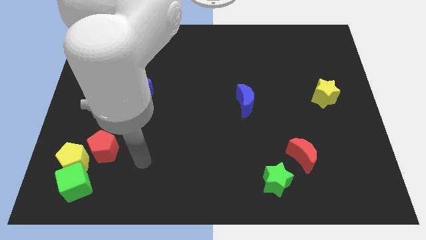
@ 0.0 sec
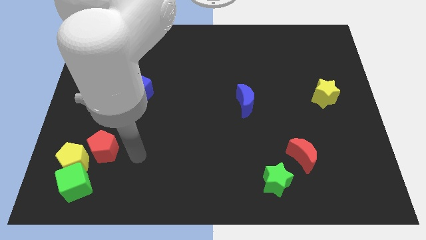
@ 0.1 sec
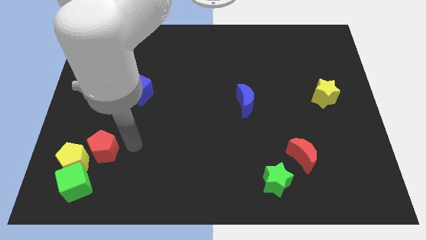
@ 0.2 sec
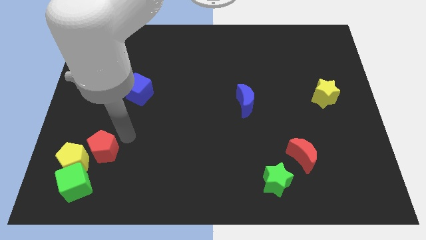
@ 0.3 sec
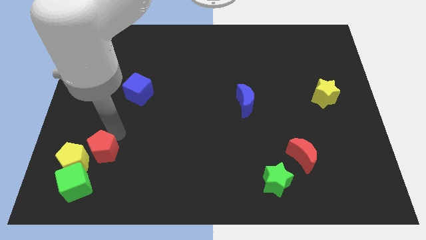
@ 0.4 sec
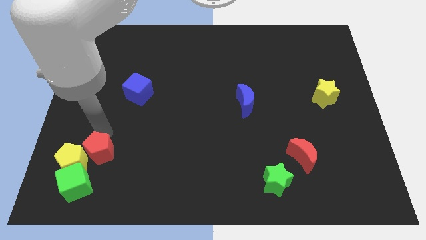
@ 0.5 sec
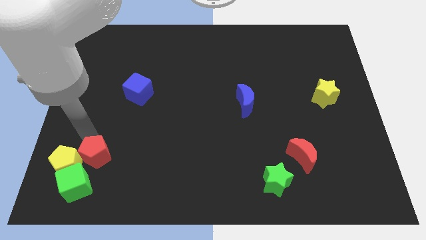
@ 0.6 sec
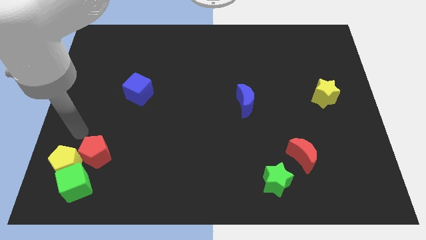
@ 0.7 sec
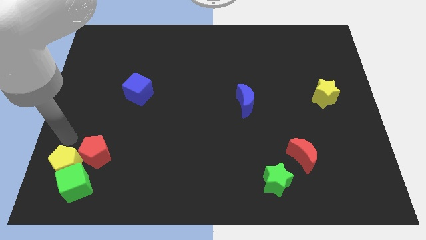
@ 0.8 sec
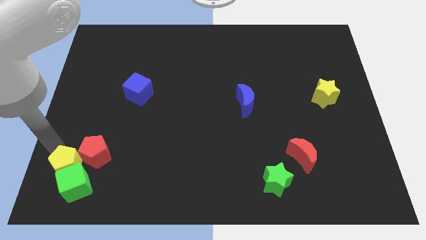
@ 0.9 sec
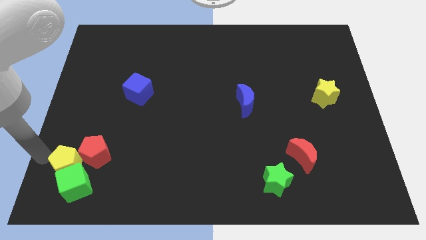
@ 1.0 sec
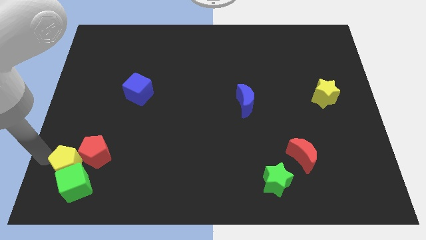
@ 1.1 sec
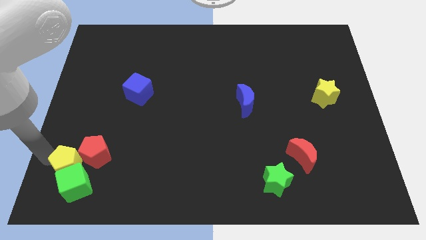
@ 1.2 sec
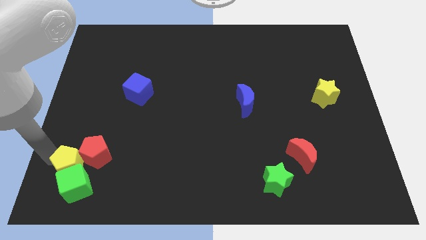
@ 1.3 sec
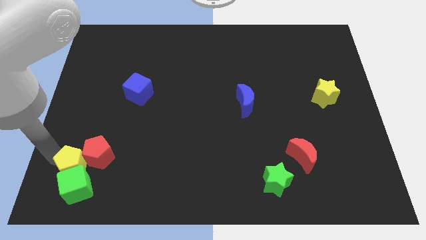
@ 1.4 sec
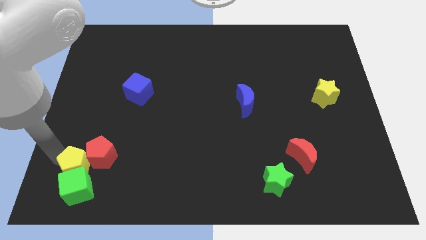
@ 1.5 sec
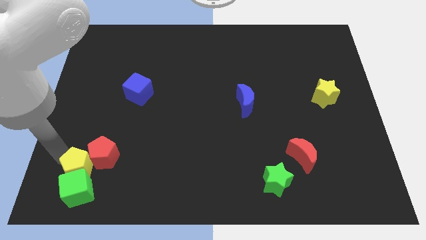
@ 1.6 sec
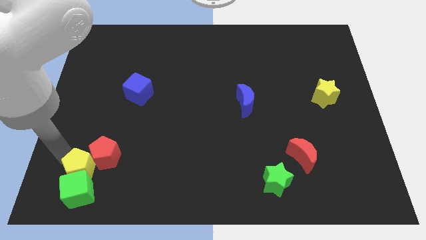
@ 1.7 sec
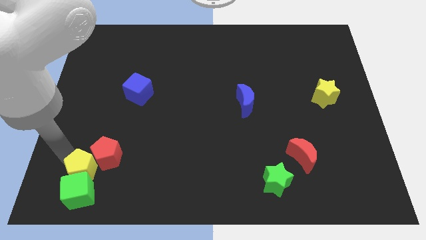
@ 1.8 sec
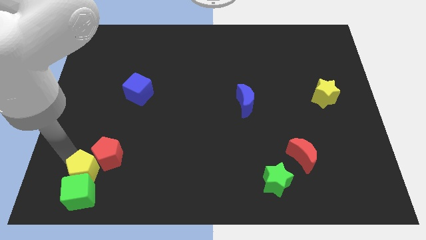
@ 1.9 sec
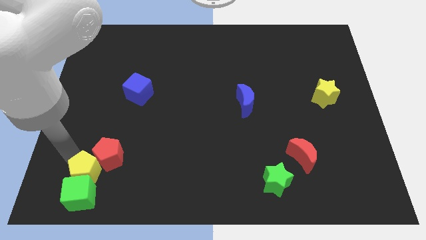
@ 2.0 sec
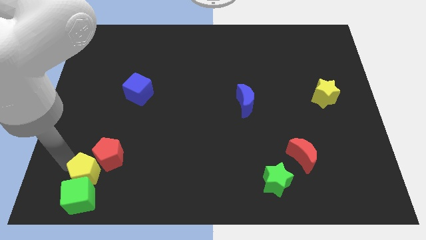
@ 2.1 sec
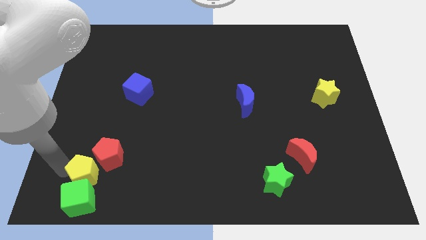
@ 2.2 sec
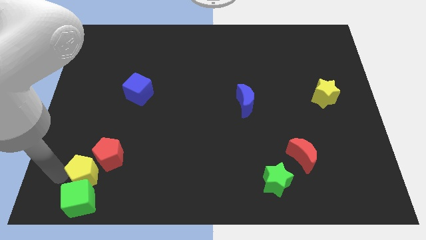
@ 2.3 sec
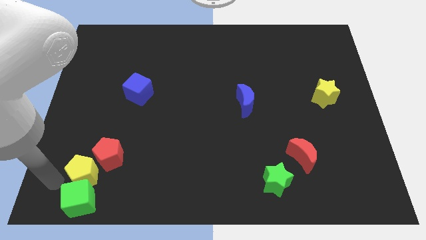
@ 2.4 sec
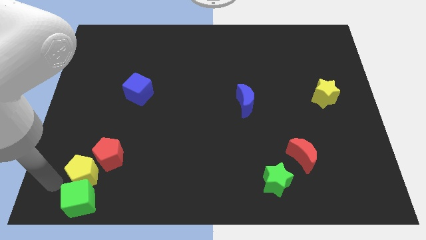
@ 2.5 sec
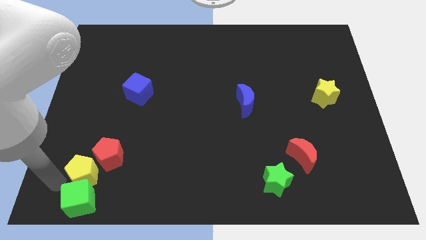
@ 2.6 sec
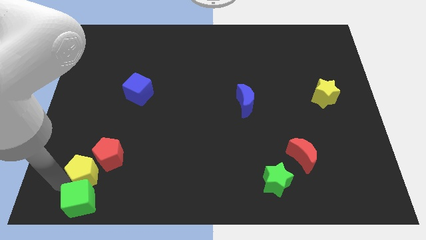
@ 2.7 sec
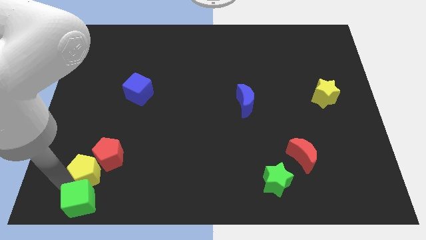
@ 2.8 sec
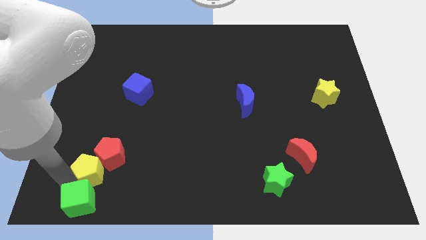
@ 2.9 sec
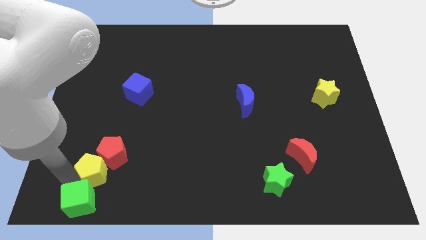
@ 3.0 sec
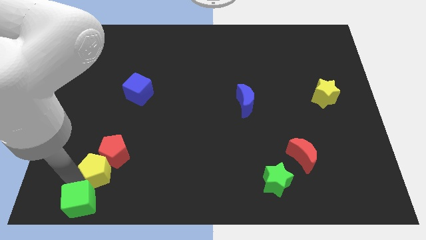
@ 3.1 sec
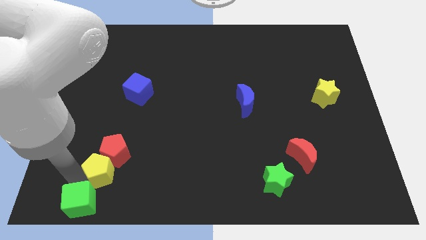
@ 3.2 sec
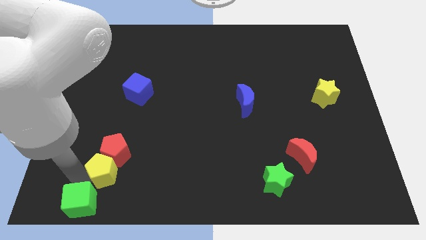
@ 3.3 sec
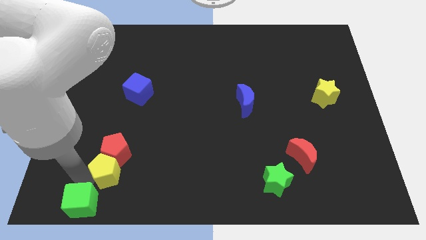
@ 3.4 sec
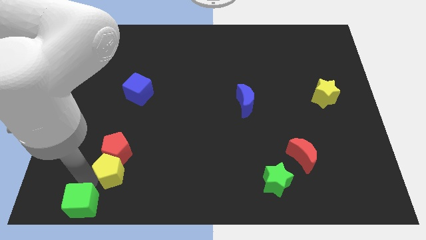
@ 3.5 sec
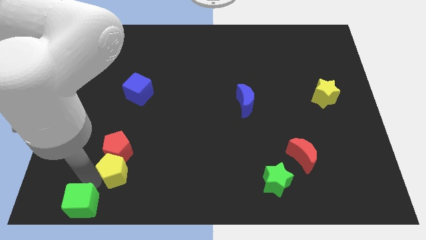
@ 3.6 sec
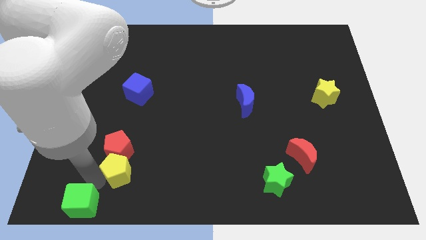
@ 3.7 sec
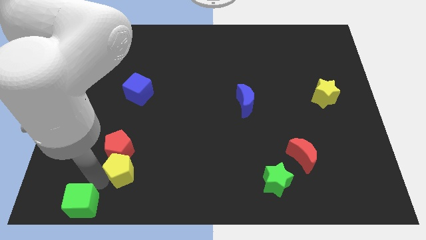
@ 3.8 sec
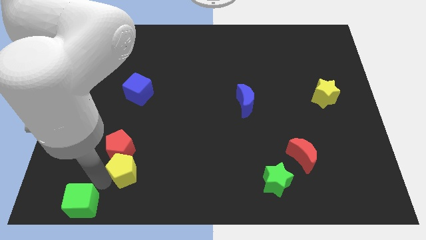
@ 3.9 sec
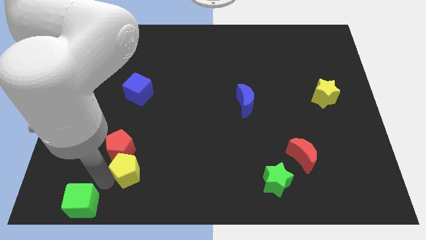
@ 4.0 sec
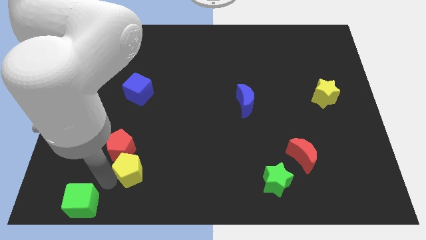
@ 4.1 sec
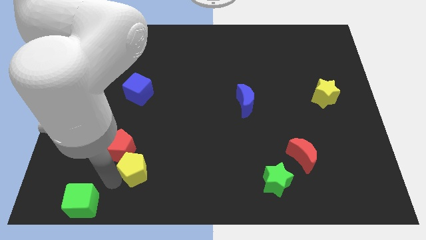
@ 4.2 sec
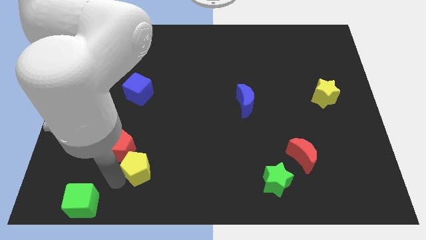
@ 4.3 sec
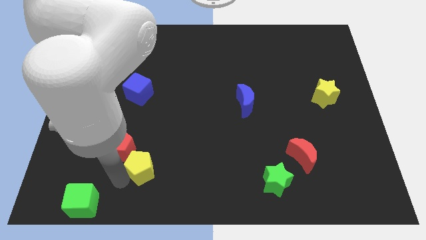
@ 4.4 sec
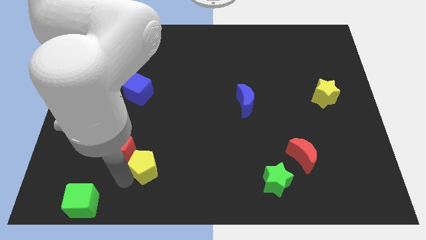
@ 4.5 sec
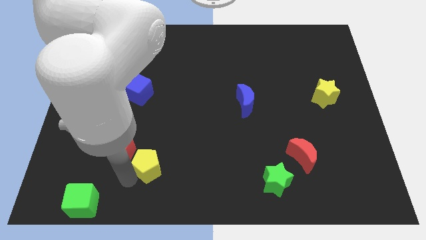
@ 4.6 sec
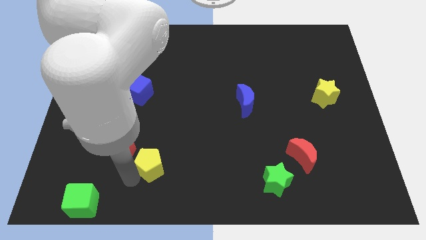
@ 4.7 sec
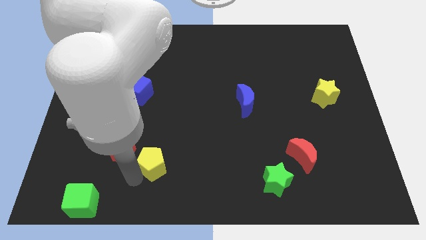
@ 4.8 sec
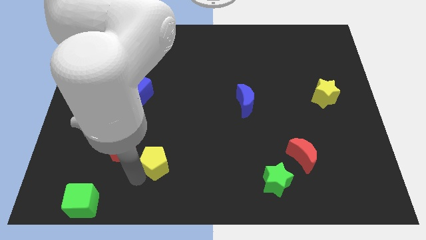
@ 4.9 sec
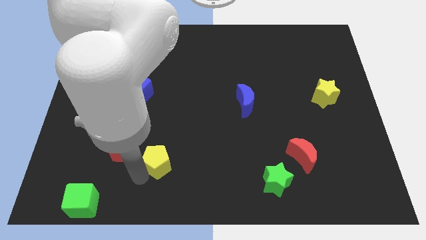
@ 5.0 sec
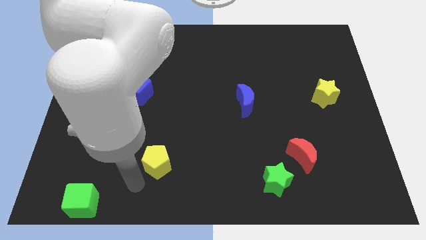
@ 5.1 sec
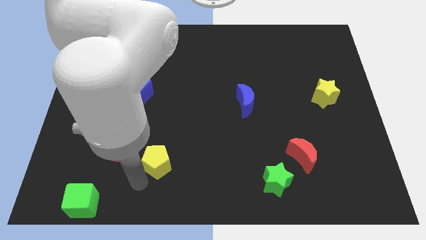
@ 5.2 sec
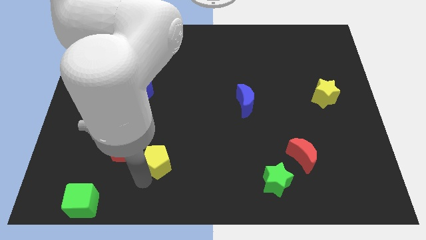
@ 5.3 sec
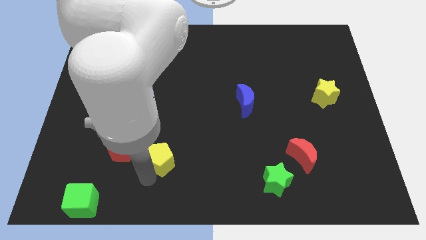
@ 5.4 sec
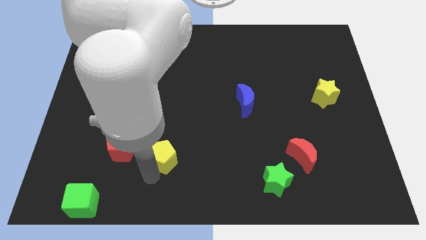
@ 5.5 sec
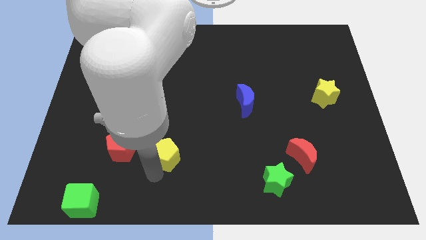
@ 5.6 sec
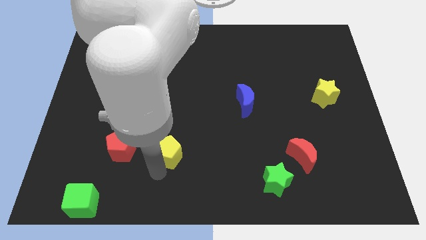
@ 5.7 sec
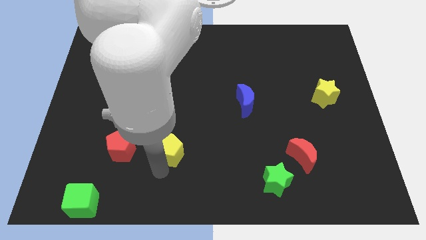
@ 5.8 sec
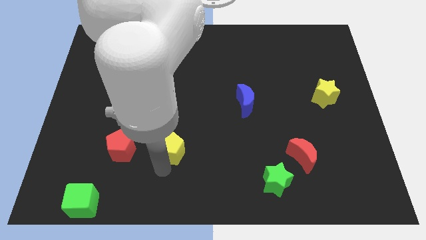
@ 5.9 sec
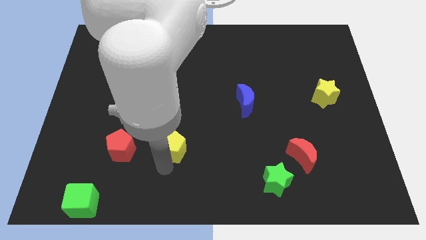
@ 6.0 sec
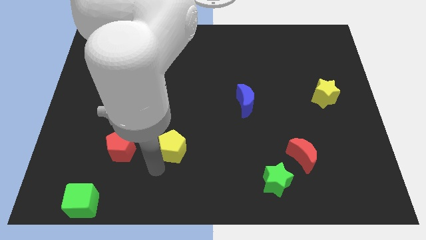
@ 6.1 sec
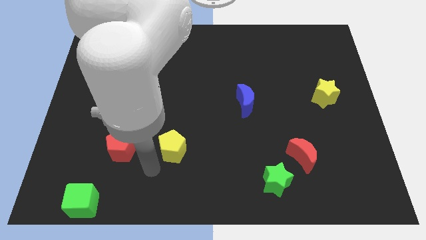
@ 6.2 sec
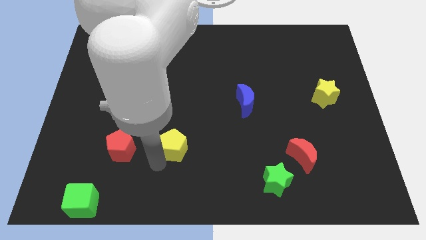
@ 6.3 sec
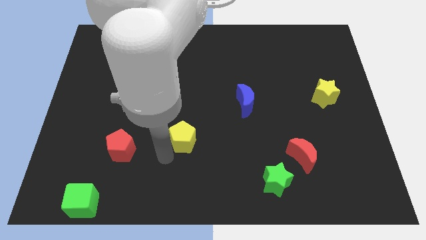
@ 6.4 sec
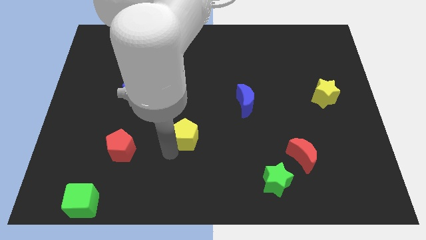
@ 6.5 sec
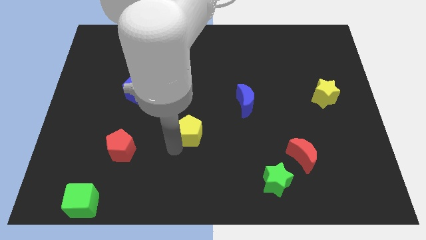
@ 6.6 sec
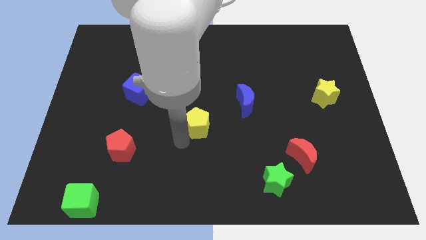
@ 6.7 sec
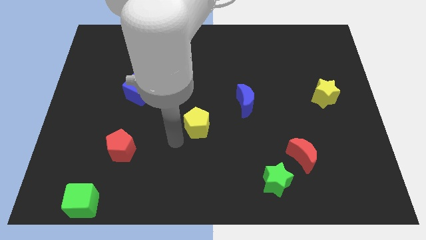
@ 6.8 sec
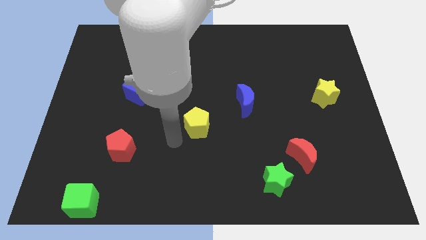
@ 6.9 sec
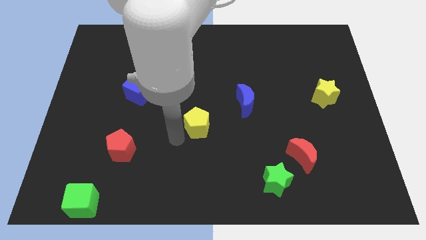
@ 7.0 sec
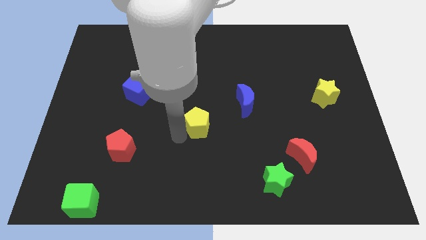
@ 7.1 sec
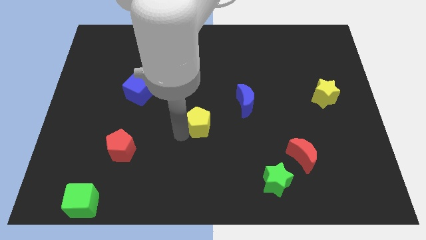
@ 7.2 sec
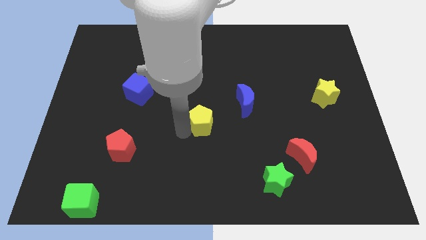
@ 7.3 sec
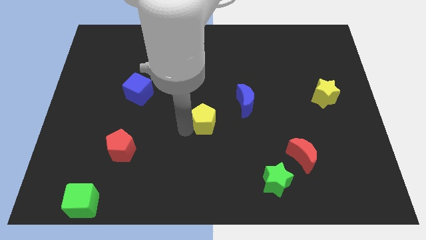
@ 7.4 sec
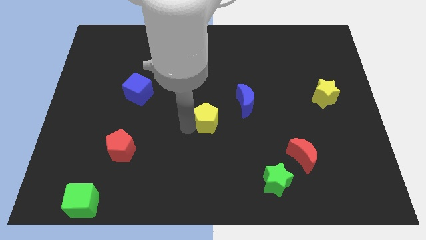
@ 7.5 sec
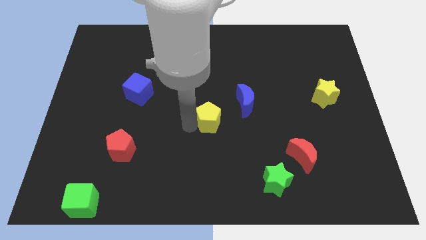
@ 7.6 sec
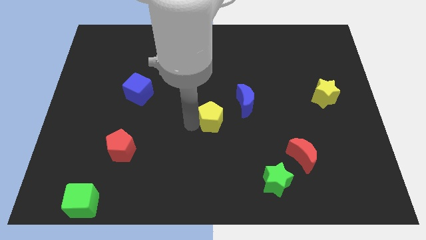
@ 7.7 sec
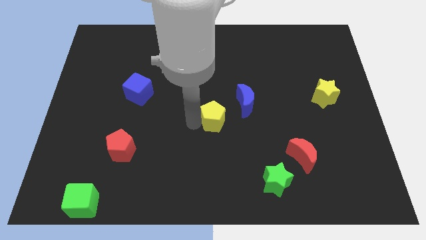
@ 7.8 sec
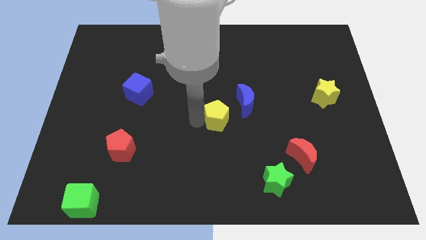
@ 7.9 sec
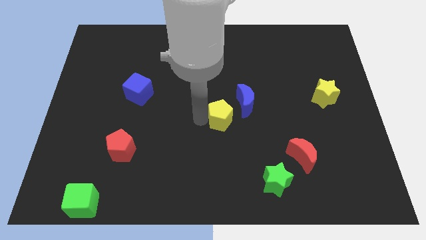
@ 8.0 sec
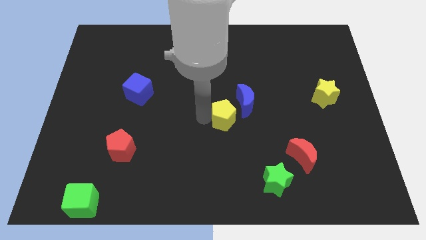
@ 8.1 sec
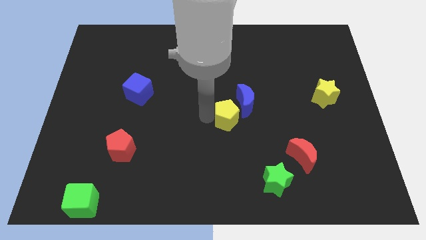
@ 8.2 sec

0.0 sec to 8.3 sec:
push the yellow pentagon towards the blue moon
